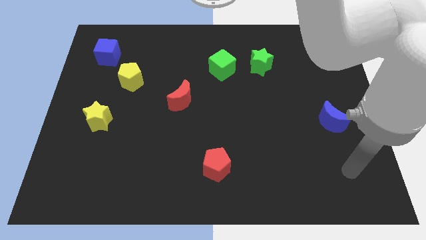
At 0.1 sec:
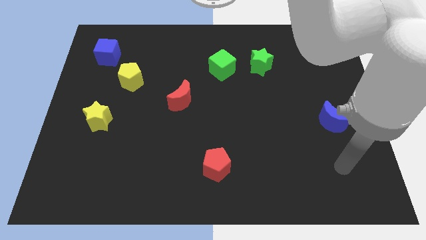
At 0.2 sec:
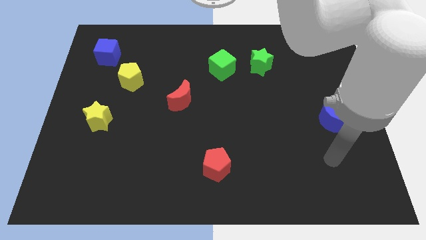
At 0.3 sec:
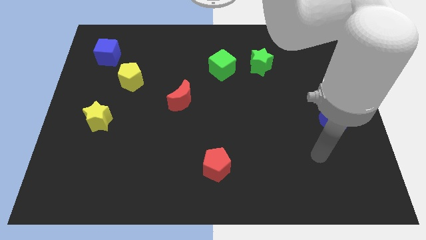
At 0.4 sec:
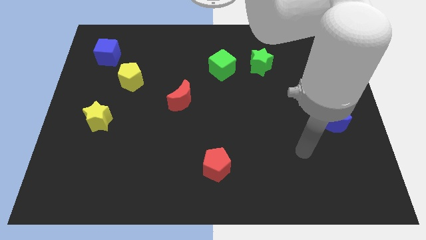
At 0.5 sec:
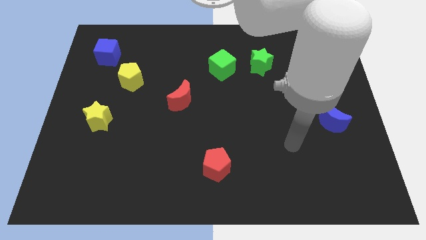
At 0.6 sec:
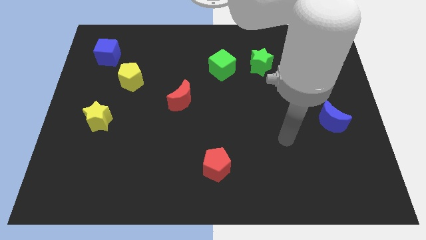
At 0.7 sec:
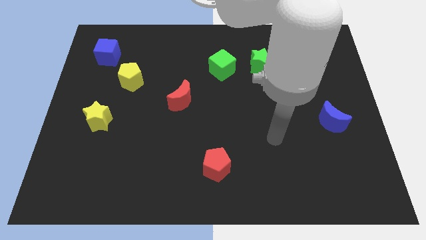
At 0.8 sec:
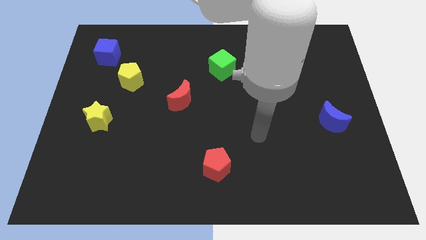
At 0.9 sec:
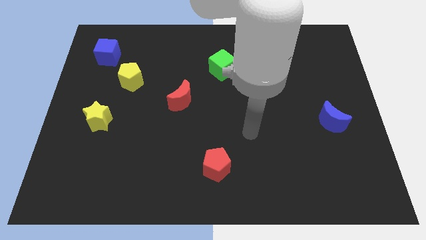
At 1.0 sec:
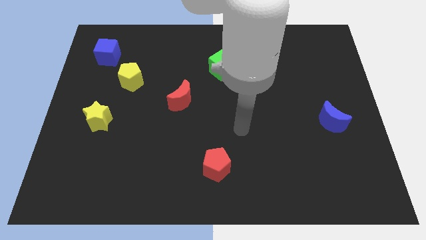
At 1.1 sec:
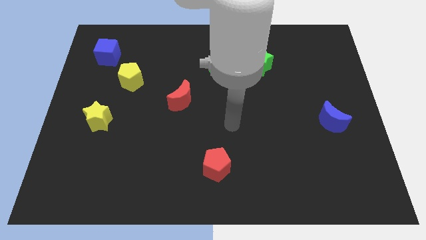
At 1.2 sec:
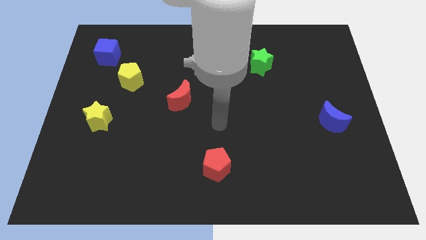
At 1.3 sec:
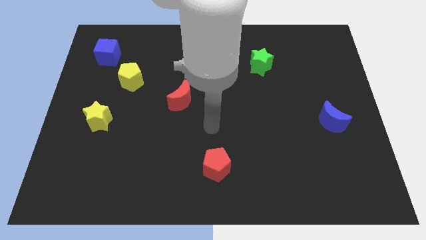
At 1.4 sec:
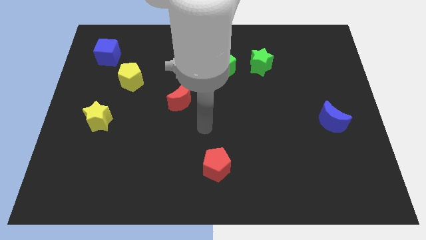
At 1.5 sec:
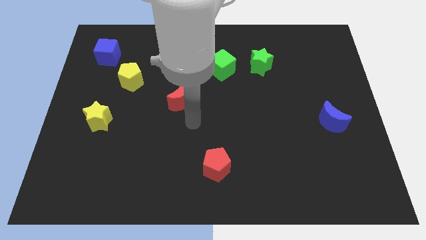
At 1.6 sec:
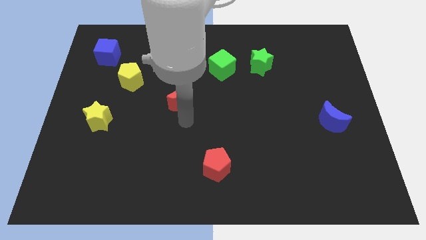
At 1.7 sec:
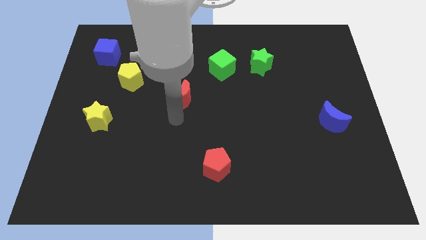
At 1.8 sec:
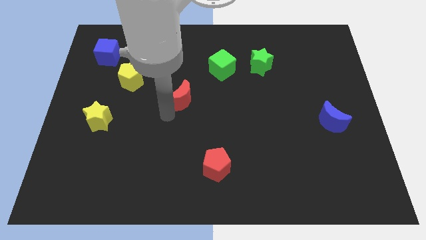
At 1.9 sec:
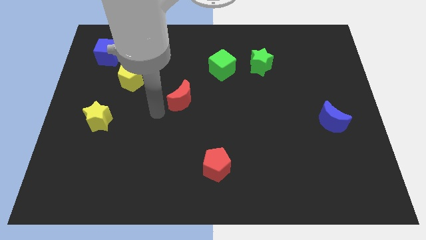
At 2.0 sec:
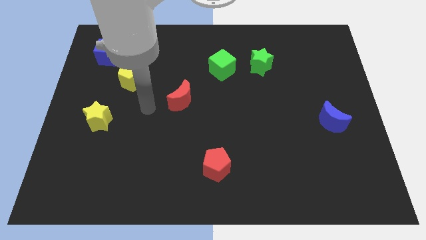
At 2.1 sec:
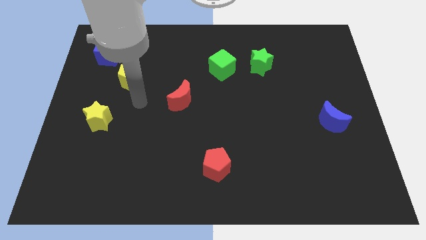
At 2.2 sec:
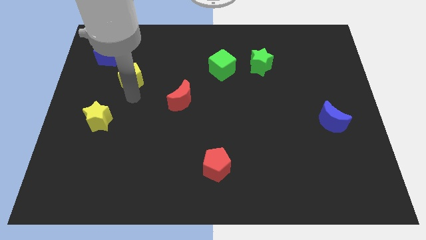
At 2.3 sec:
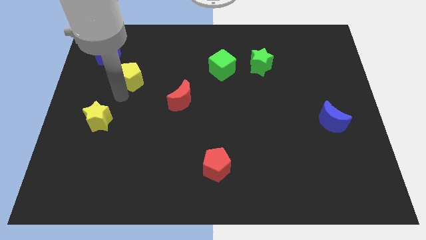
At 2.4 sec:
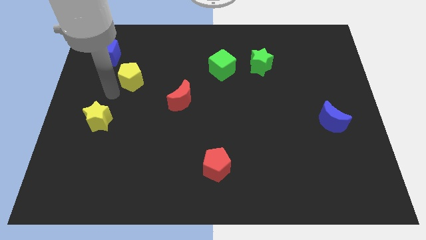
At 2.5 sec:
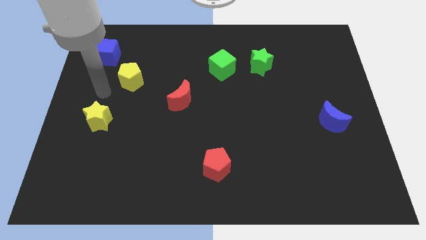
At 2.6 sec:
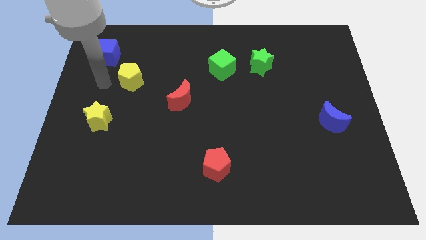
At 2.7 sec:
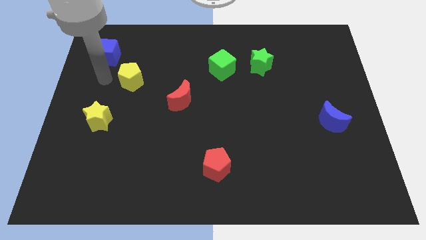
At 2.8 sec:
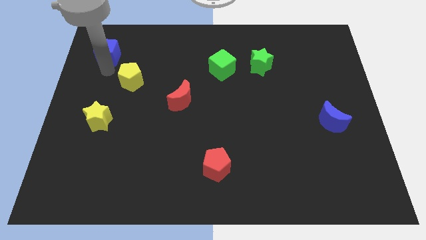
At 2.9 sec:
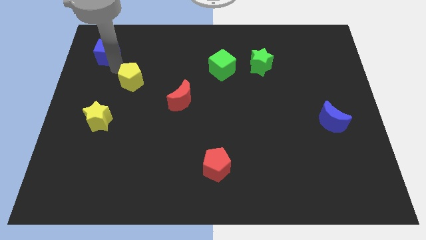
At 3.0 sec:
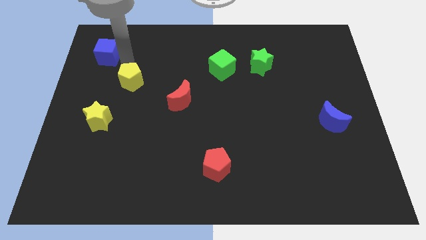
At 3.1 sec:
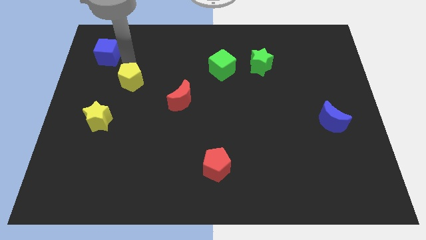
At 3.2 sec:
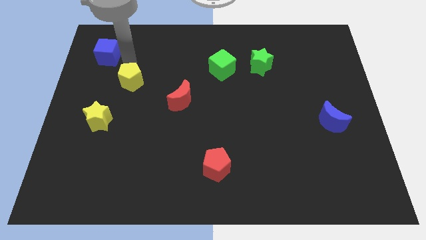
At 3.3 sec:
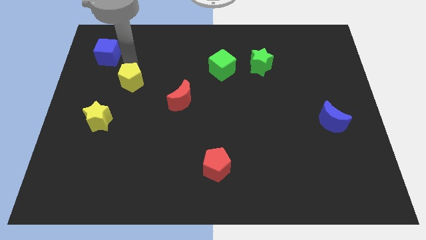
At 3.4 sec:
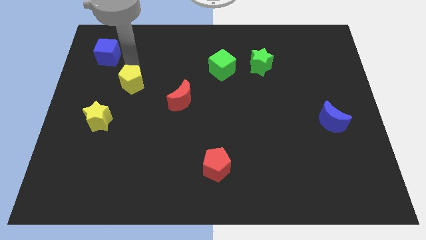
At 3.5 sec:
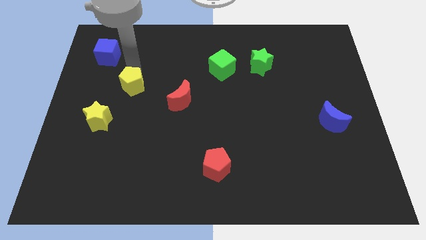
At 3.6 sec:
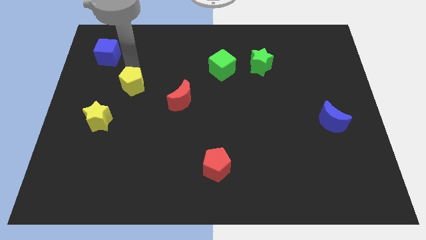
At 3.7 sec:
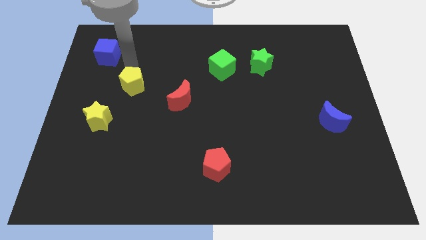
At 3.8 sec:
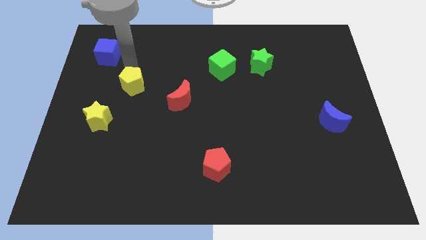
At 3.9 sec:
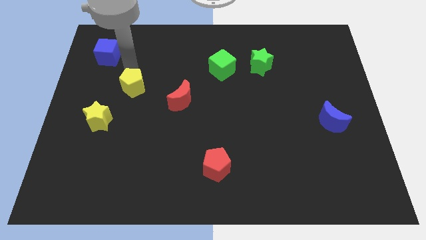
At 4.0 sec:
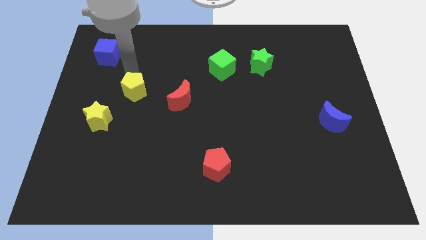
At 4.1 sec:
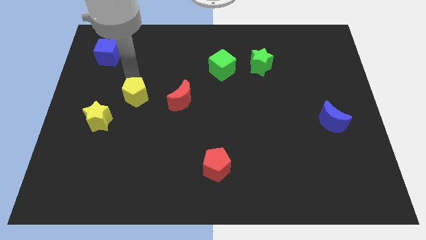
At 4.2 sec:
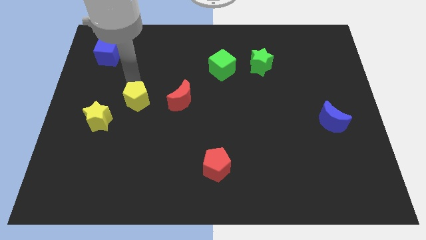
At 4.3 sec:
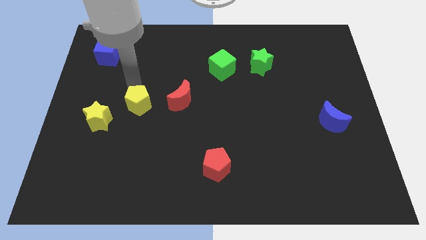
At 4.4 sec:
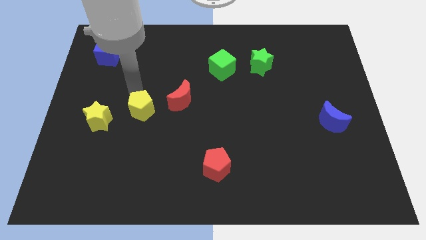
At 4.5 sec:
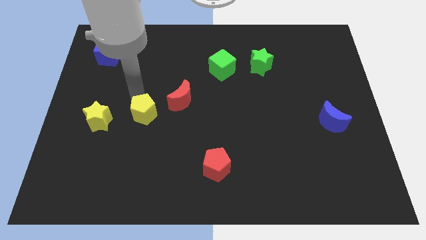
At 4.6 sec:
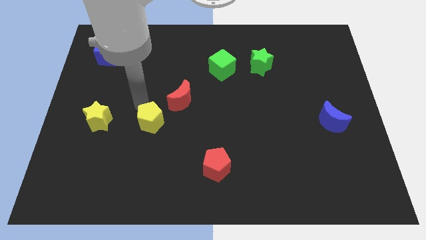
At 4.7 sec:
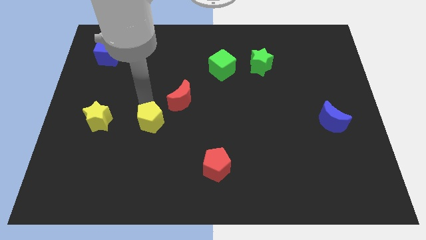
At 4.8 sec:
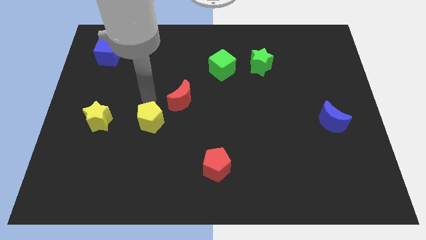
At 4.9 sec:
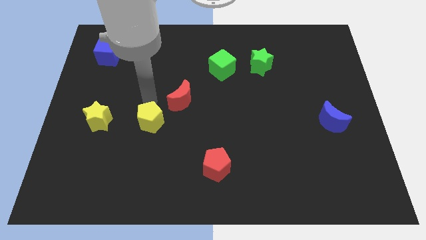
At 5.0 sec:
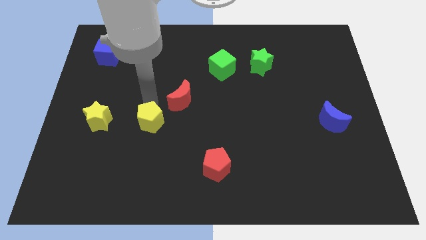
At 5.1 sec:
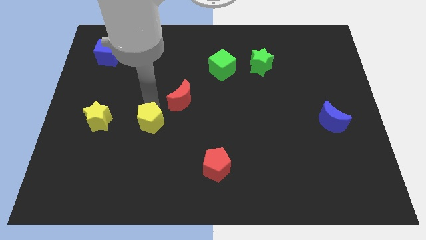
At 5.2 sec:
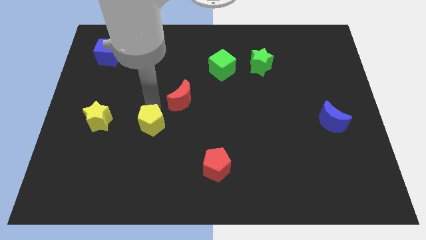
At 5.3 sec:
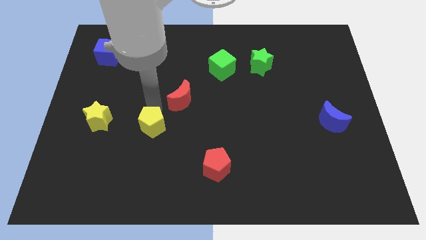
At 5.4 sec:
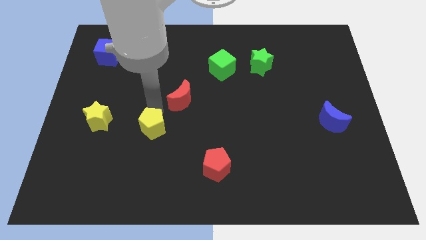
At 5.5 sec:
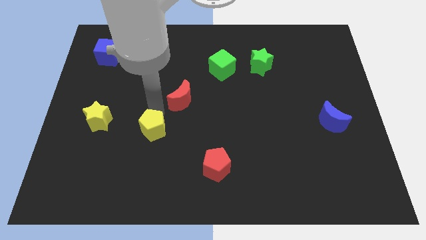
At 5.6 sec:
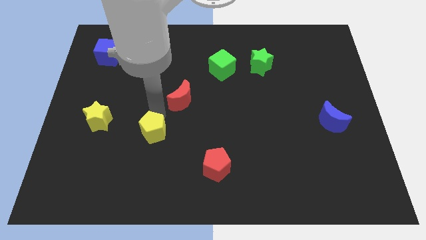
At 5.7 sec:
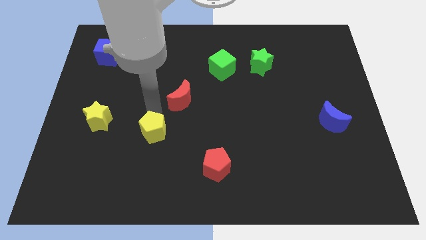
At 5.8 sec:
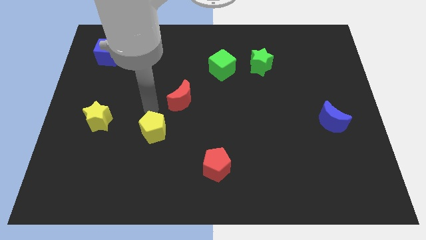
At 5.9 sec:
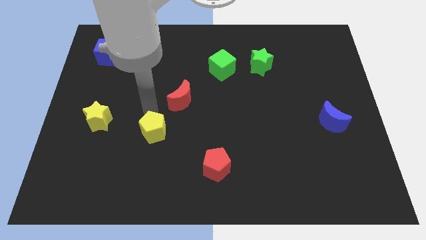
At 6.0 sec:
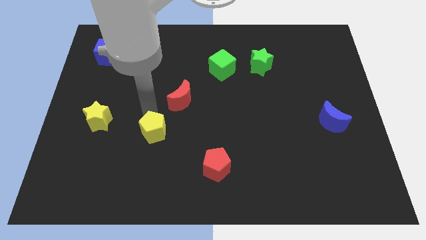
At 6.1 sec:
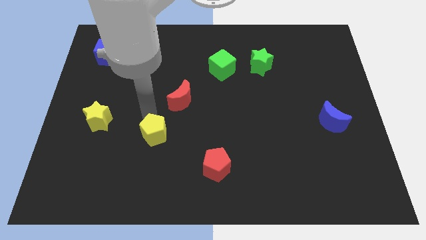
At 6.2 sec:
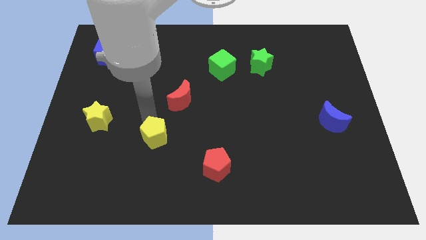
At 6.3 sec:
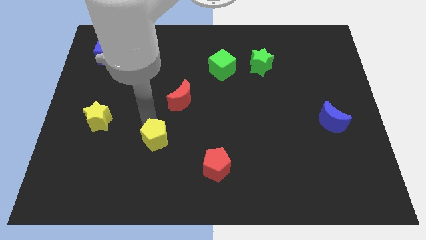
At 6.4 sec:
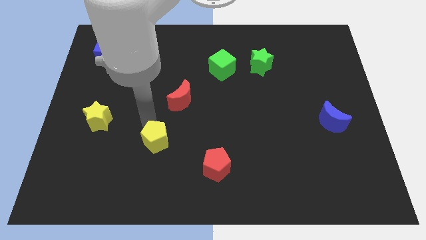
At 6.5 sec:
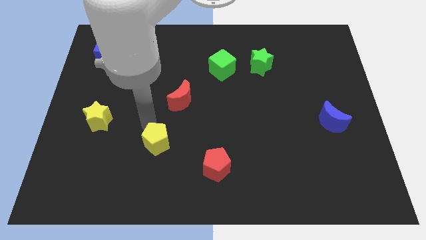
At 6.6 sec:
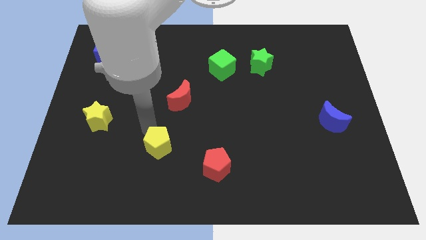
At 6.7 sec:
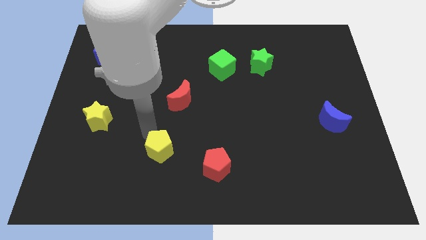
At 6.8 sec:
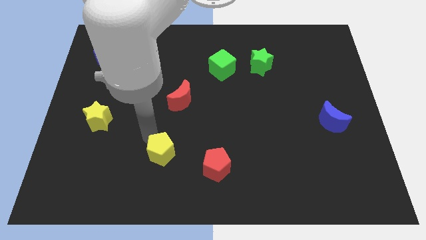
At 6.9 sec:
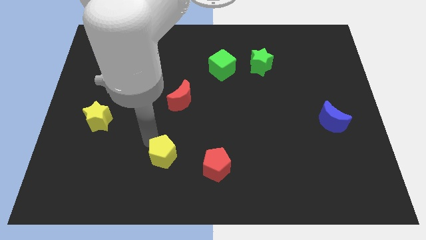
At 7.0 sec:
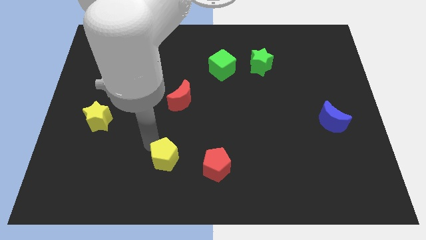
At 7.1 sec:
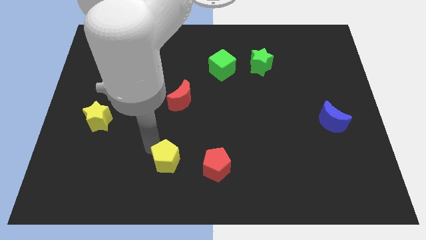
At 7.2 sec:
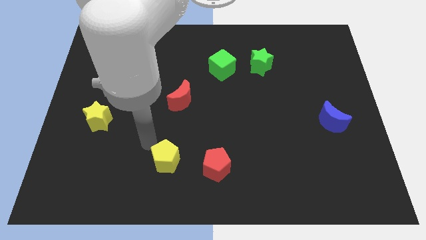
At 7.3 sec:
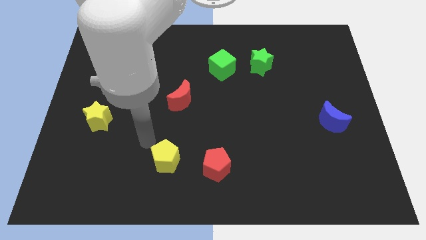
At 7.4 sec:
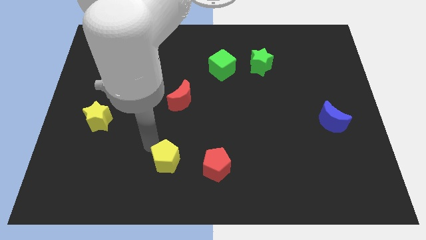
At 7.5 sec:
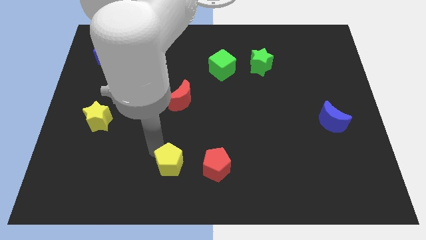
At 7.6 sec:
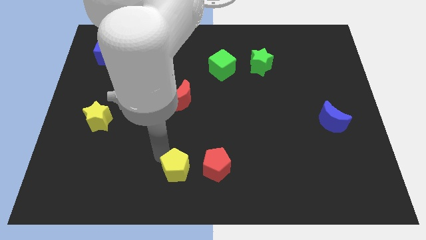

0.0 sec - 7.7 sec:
slide the yellow pentagon to the bottom
